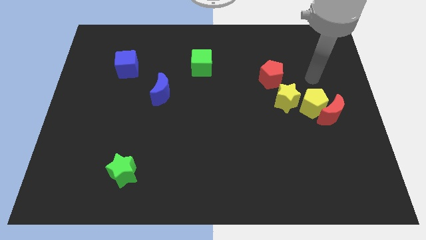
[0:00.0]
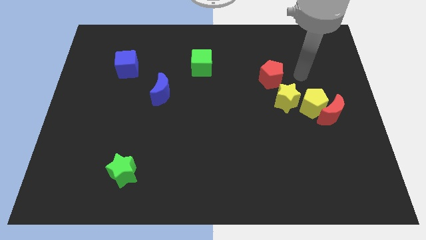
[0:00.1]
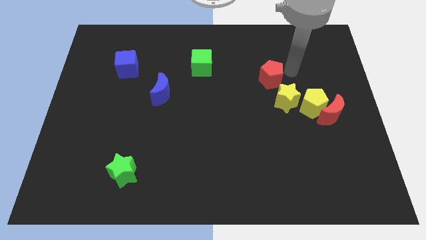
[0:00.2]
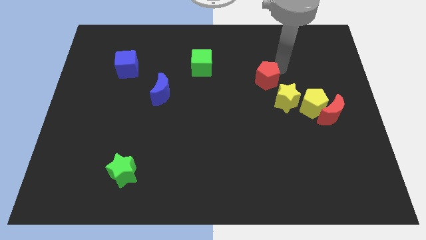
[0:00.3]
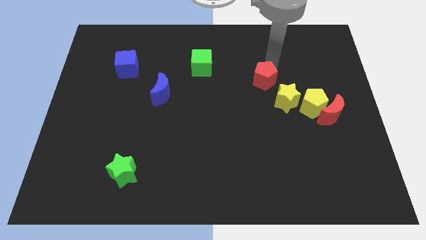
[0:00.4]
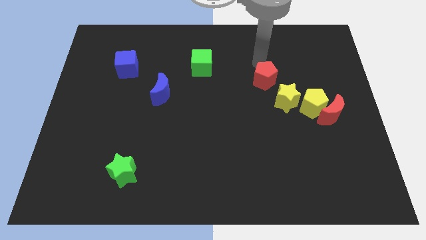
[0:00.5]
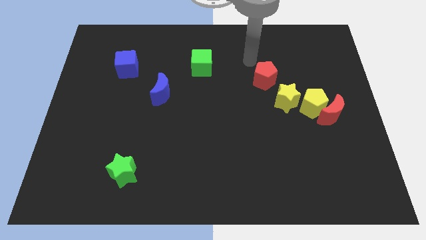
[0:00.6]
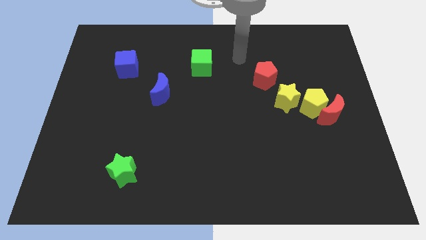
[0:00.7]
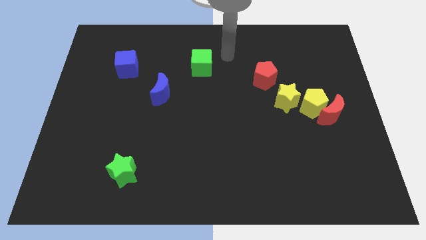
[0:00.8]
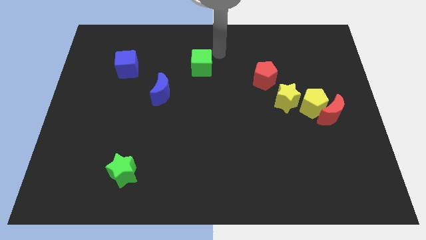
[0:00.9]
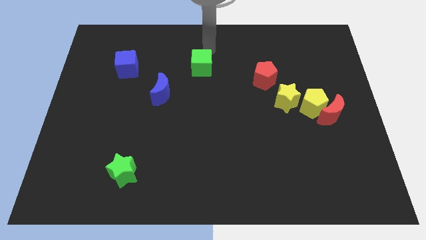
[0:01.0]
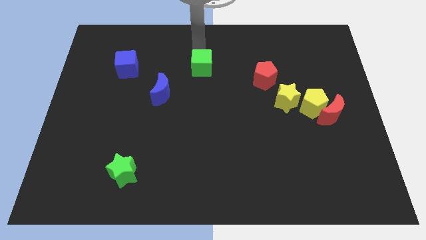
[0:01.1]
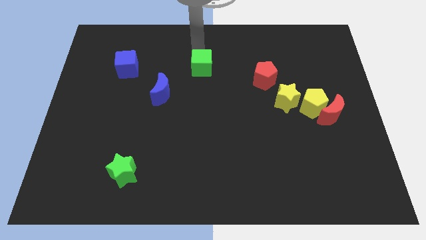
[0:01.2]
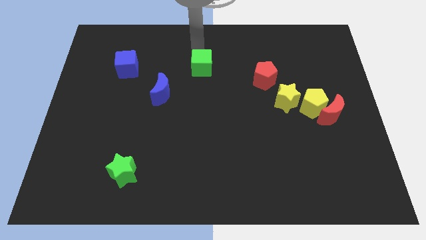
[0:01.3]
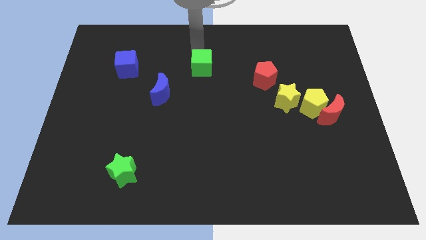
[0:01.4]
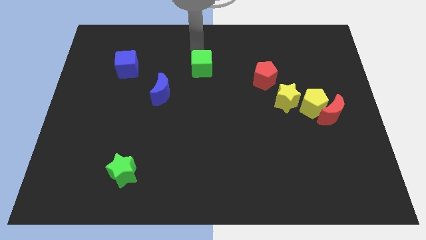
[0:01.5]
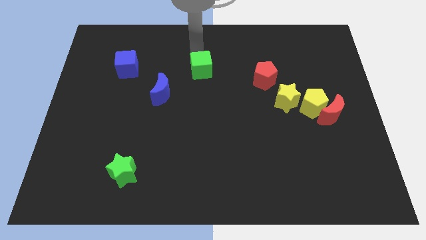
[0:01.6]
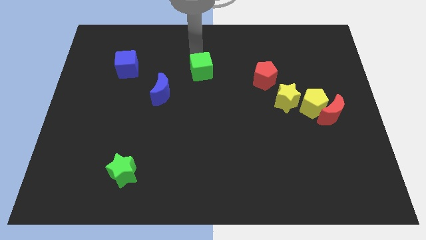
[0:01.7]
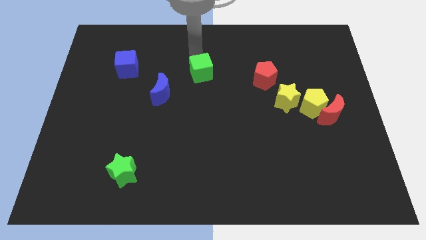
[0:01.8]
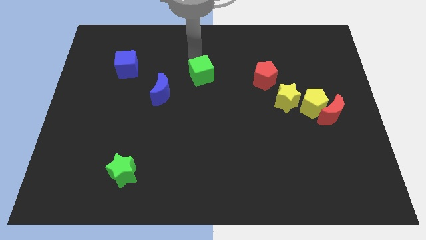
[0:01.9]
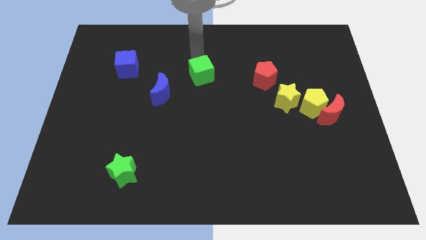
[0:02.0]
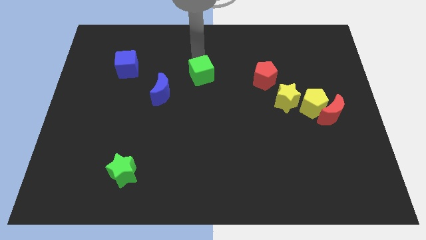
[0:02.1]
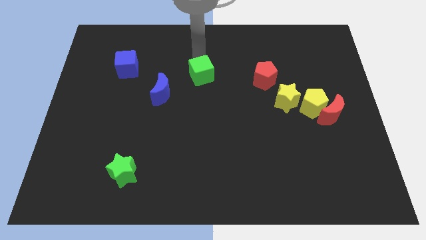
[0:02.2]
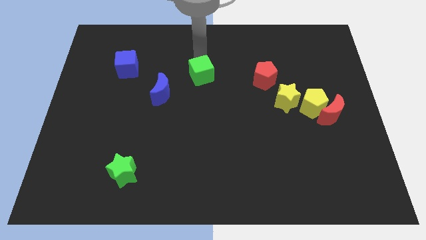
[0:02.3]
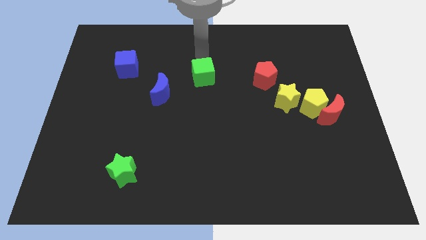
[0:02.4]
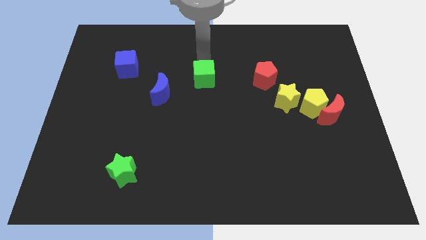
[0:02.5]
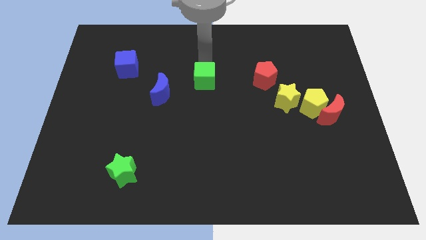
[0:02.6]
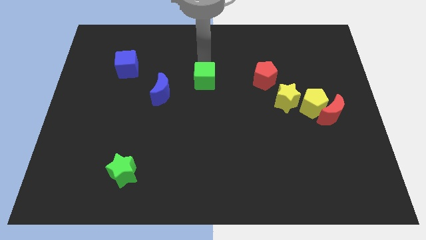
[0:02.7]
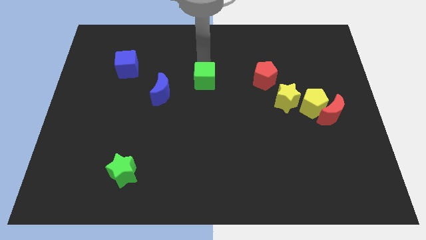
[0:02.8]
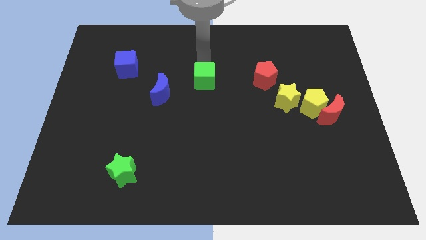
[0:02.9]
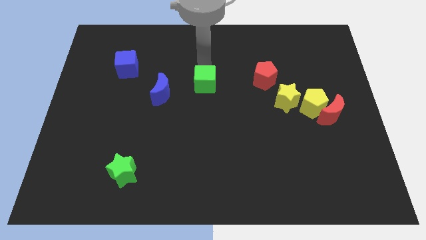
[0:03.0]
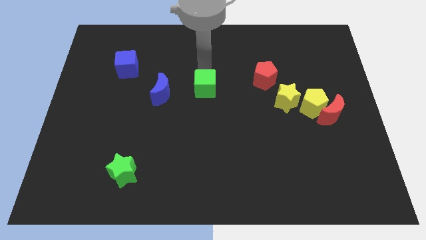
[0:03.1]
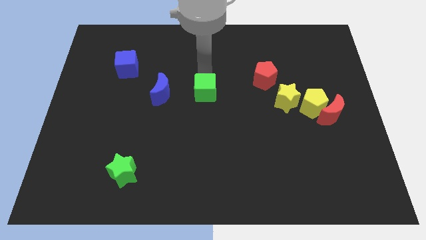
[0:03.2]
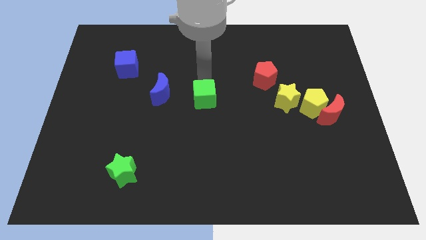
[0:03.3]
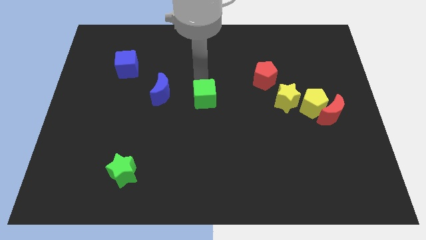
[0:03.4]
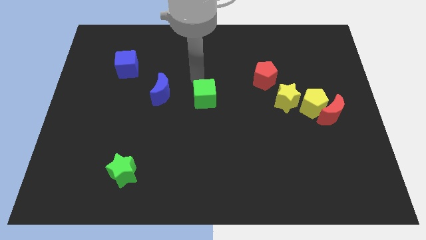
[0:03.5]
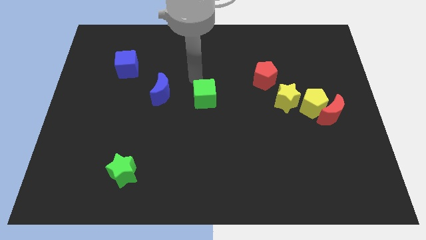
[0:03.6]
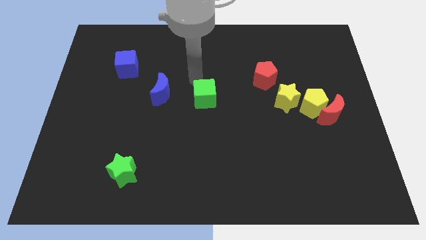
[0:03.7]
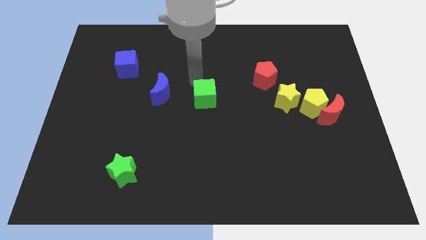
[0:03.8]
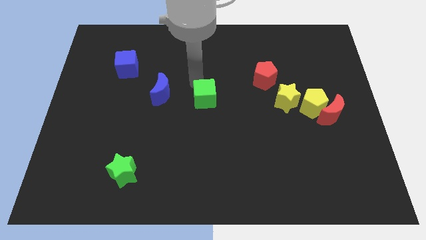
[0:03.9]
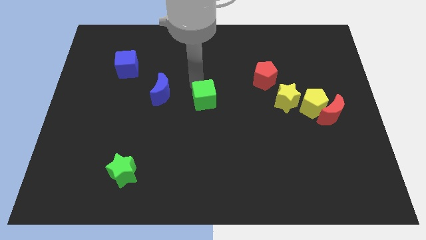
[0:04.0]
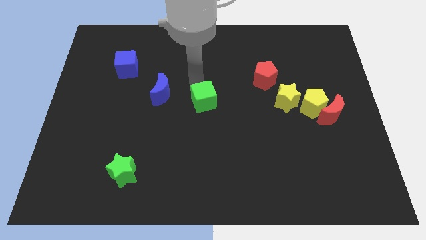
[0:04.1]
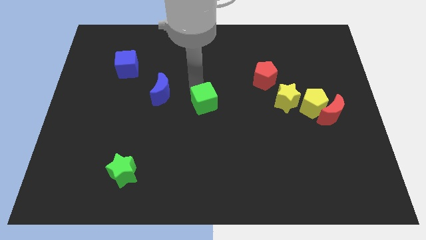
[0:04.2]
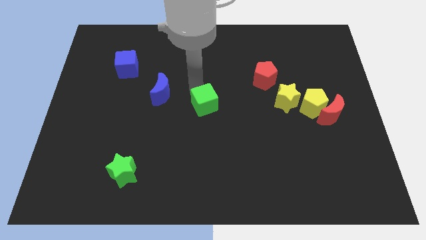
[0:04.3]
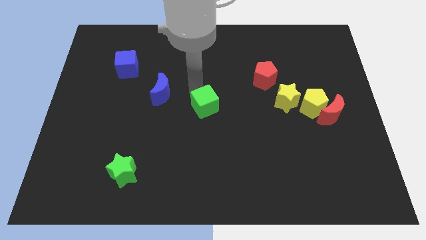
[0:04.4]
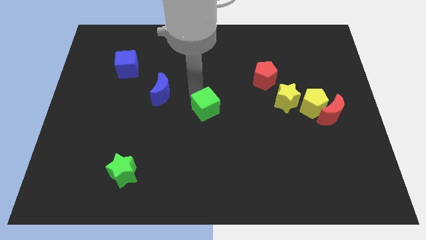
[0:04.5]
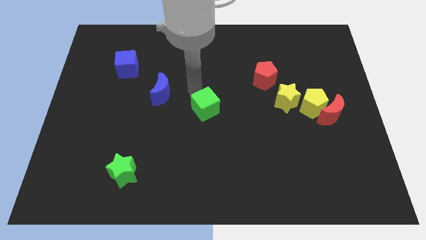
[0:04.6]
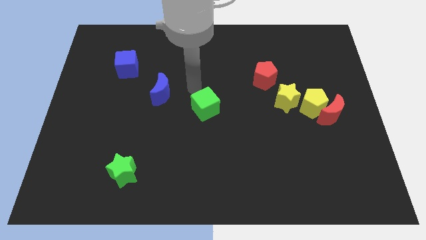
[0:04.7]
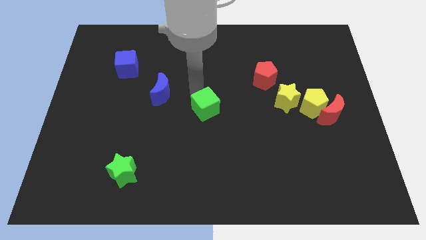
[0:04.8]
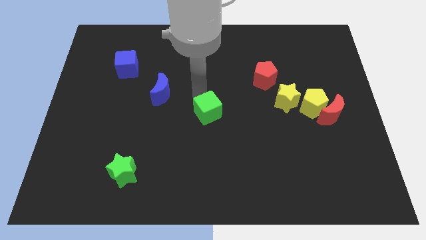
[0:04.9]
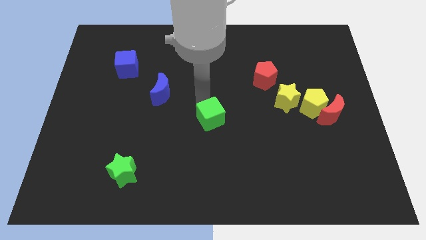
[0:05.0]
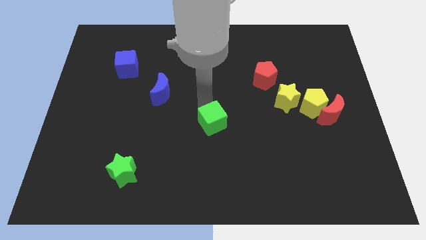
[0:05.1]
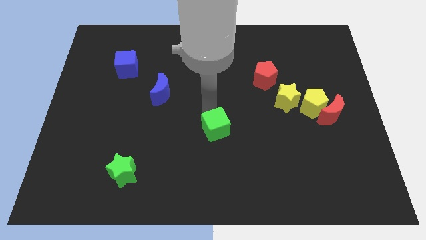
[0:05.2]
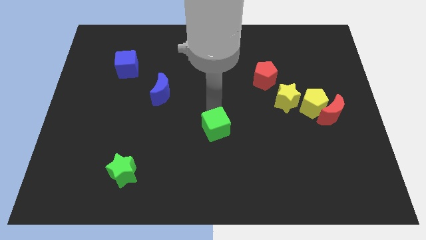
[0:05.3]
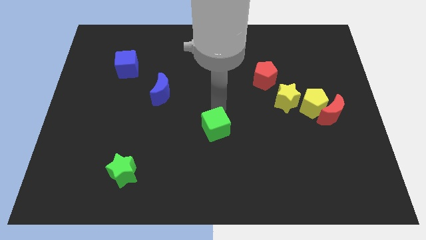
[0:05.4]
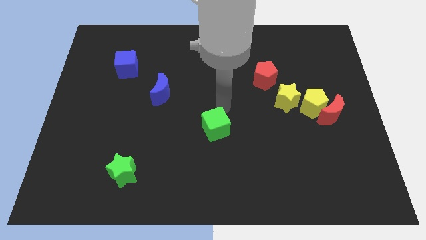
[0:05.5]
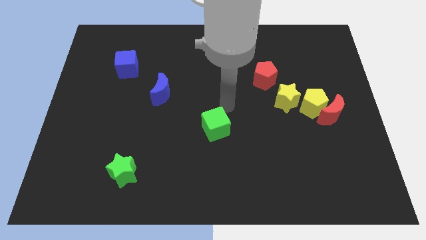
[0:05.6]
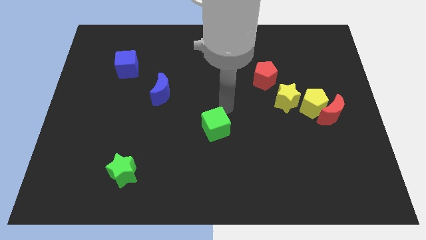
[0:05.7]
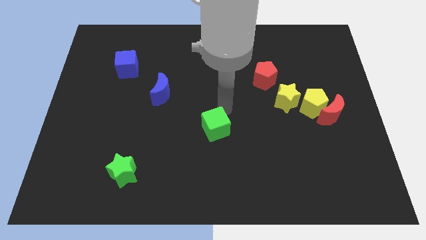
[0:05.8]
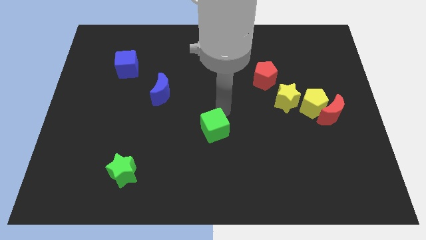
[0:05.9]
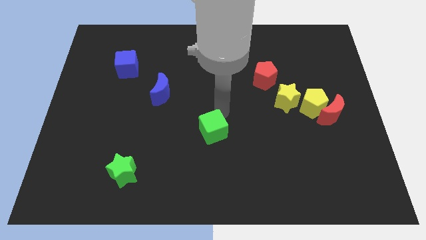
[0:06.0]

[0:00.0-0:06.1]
slide the green cube down

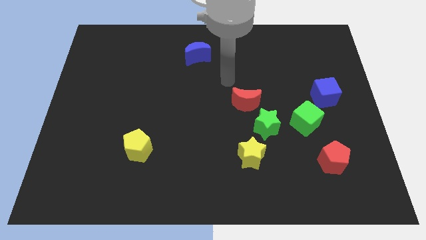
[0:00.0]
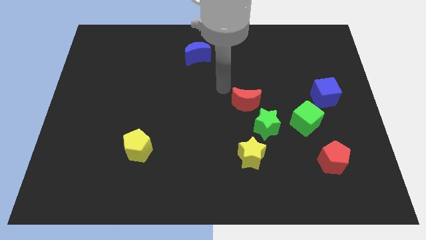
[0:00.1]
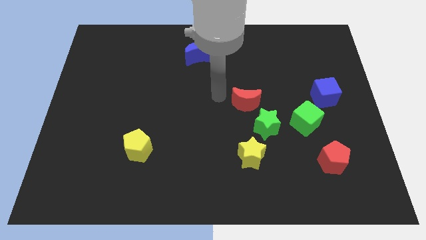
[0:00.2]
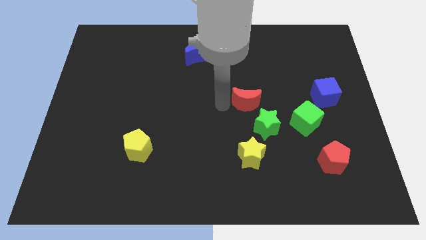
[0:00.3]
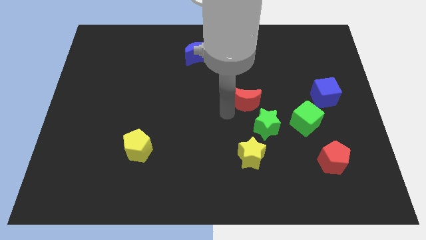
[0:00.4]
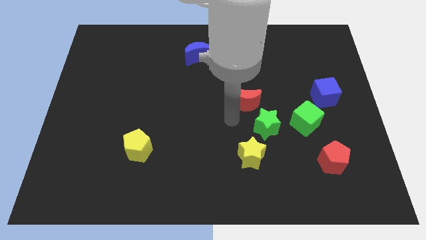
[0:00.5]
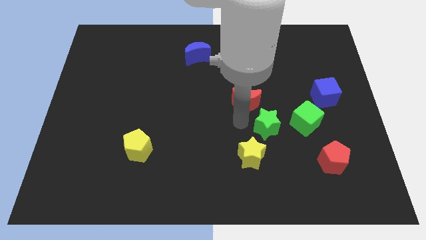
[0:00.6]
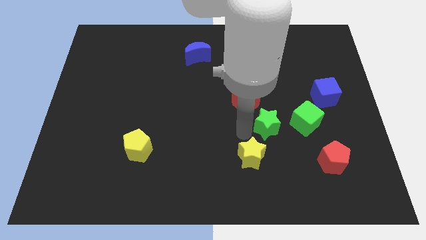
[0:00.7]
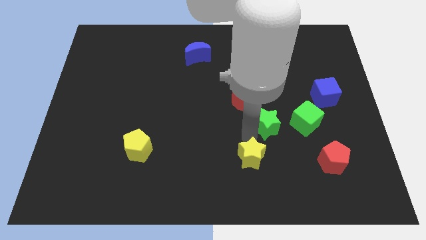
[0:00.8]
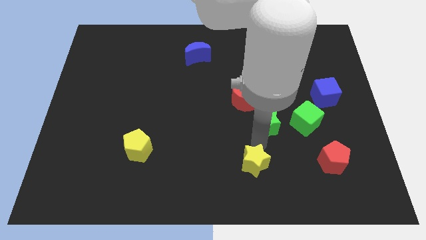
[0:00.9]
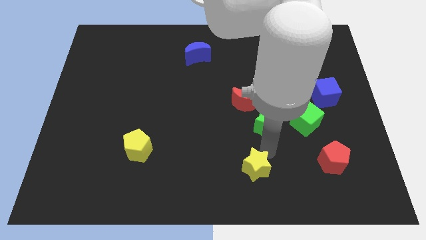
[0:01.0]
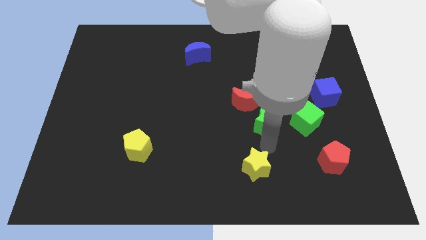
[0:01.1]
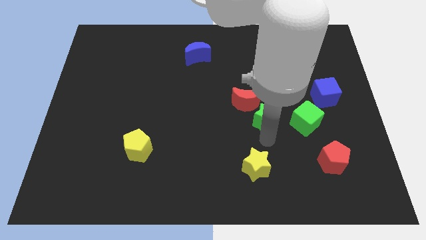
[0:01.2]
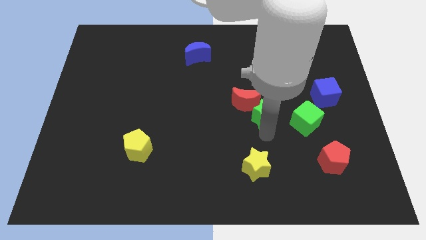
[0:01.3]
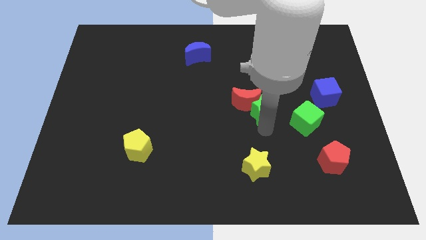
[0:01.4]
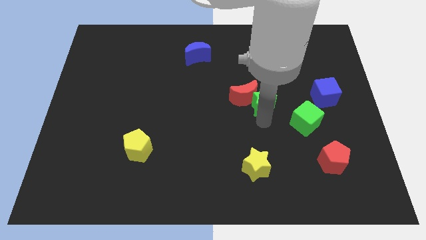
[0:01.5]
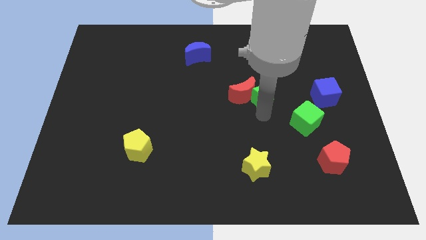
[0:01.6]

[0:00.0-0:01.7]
slide the green star up a little bit

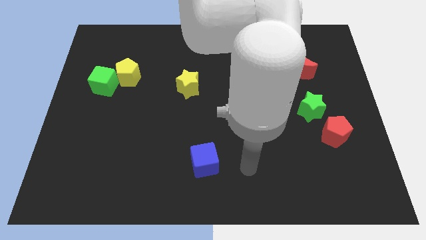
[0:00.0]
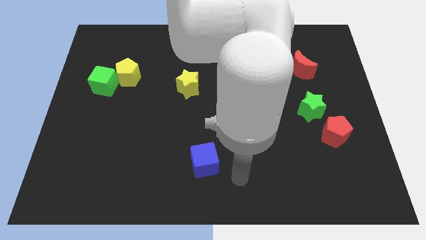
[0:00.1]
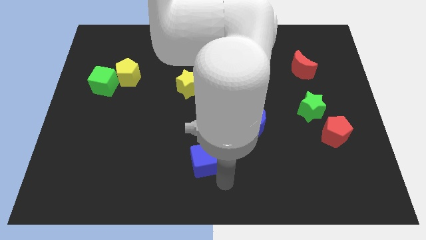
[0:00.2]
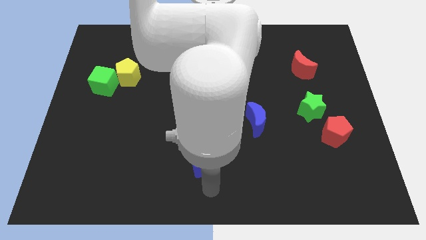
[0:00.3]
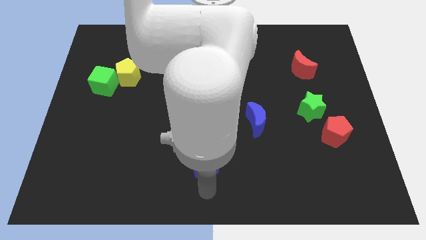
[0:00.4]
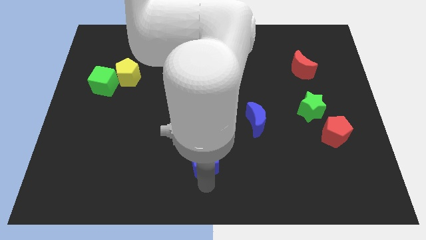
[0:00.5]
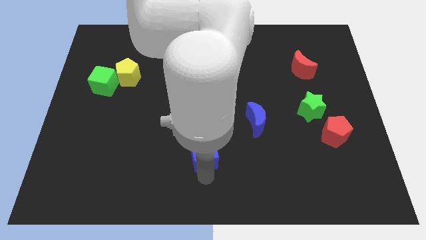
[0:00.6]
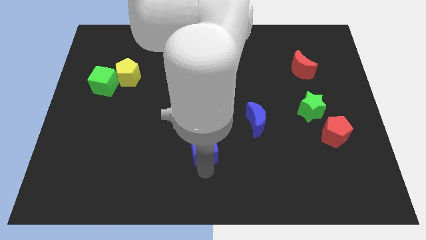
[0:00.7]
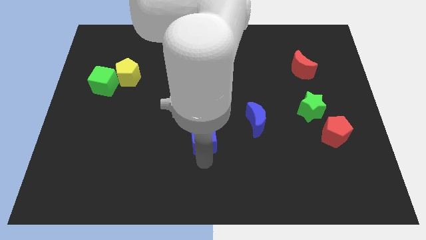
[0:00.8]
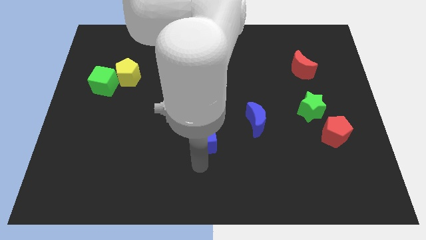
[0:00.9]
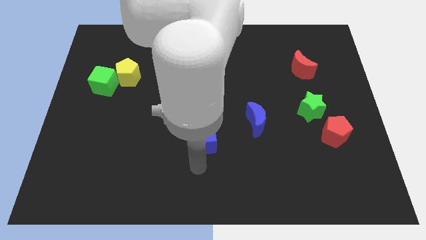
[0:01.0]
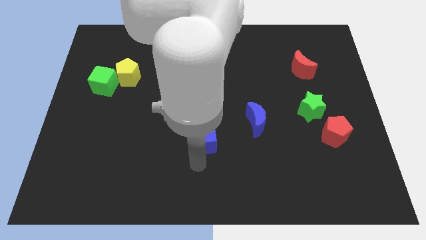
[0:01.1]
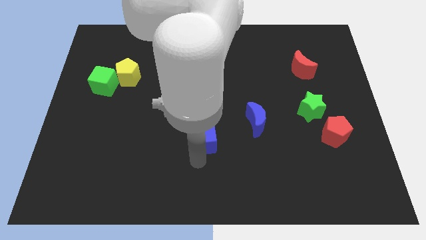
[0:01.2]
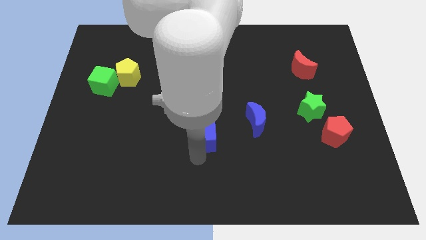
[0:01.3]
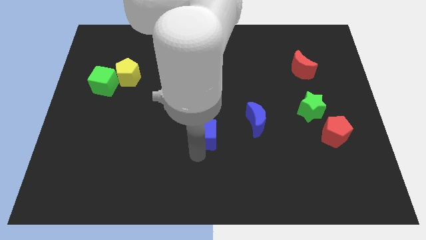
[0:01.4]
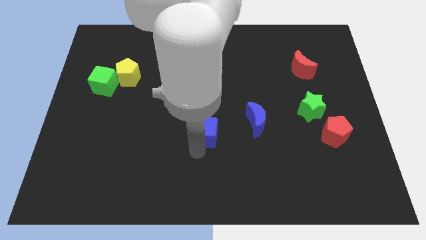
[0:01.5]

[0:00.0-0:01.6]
push the blue cube slightly upwards
